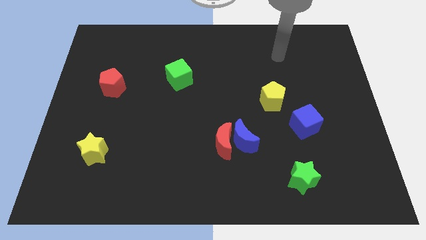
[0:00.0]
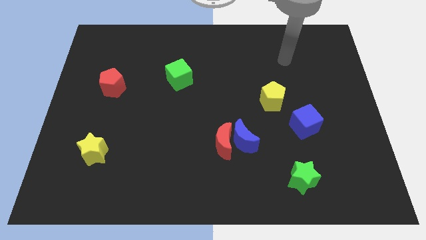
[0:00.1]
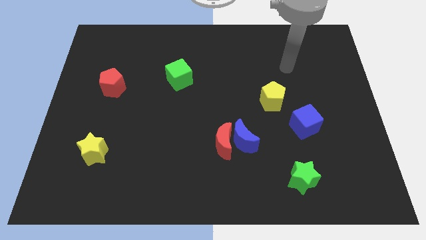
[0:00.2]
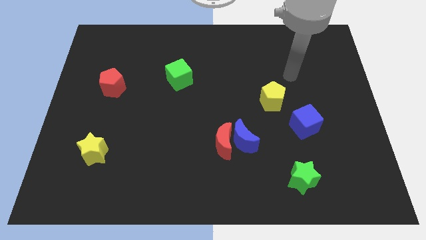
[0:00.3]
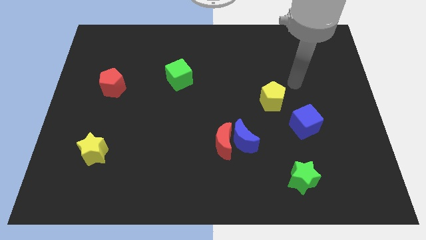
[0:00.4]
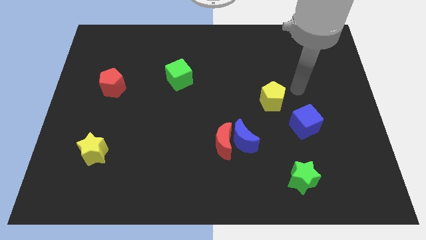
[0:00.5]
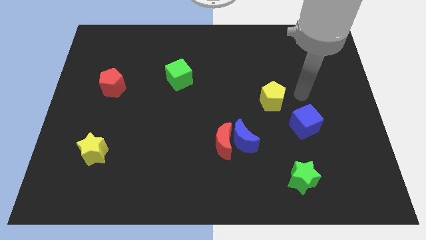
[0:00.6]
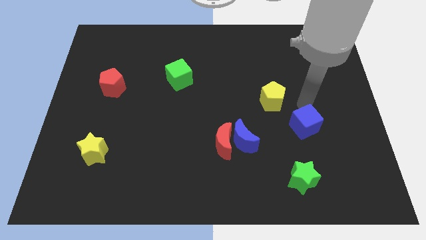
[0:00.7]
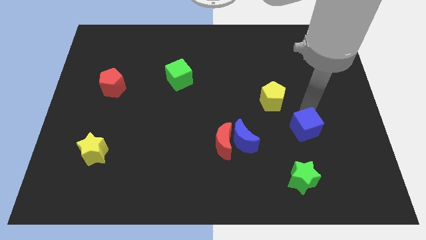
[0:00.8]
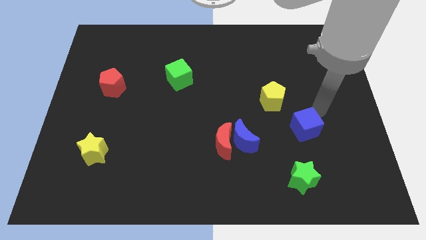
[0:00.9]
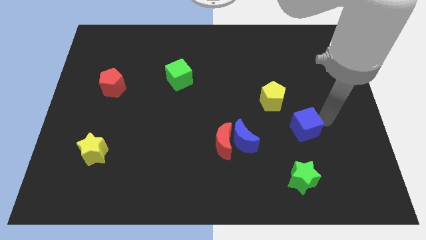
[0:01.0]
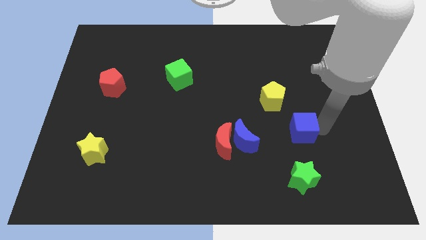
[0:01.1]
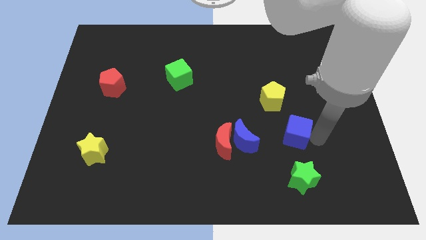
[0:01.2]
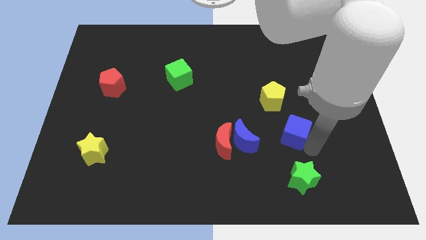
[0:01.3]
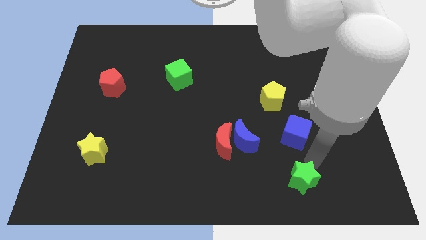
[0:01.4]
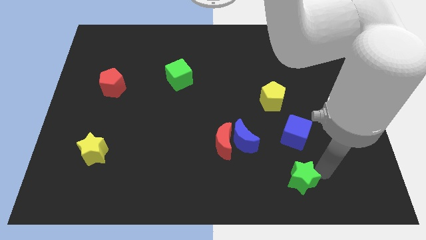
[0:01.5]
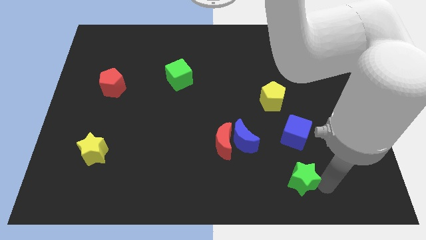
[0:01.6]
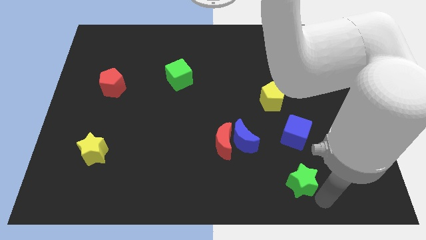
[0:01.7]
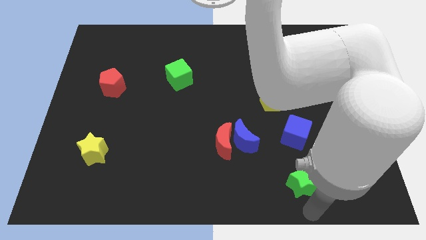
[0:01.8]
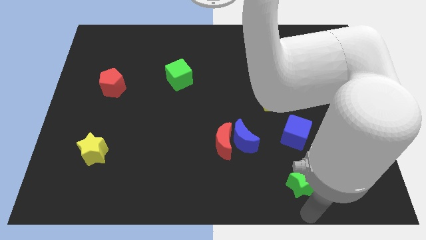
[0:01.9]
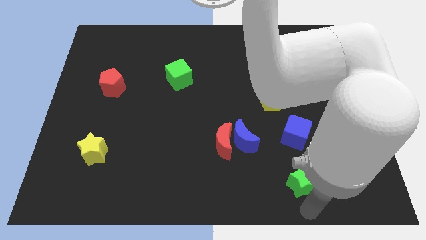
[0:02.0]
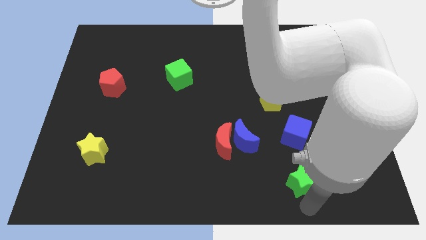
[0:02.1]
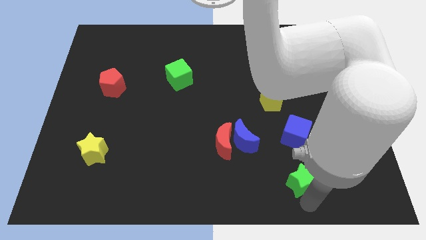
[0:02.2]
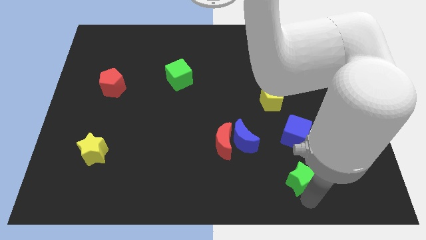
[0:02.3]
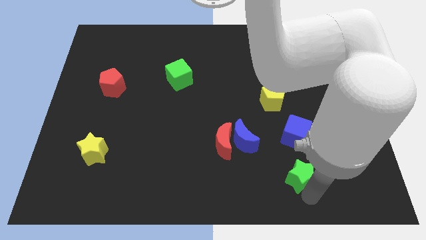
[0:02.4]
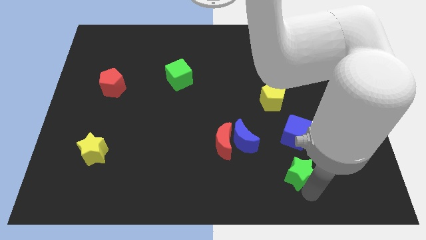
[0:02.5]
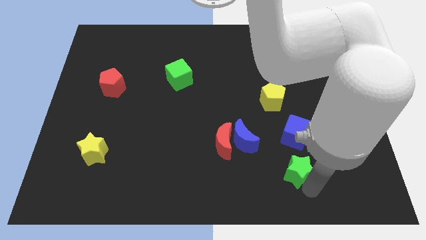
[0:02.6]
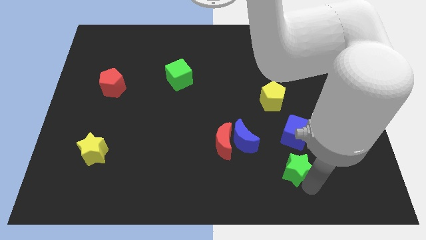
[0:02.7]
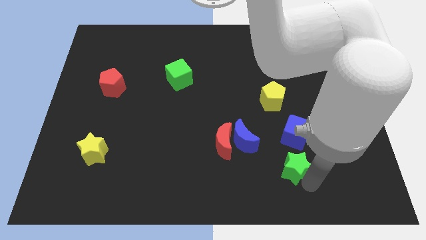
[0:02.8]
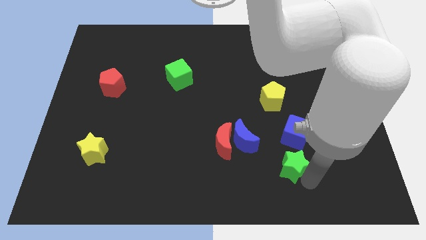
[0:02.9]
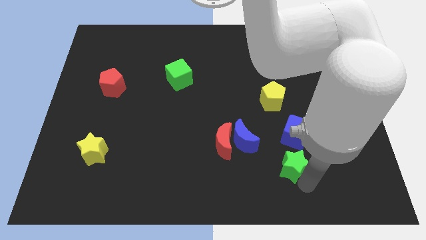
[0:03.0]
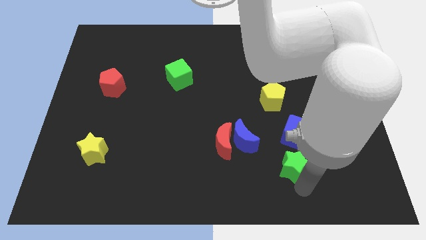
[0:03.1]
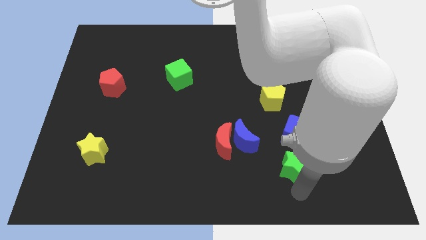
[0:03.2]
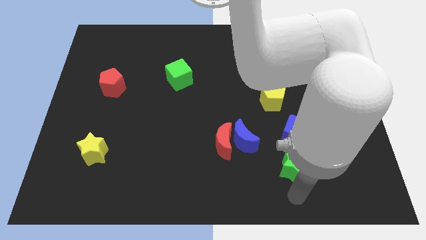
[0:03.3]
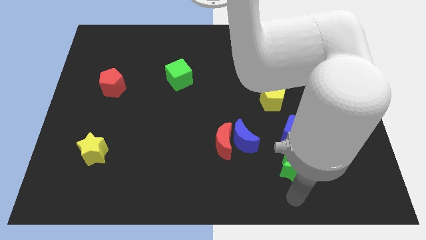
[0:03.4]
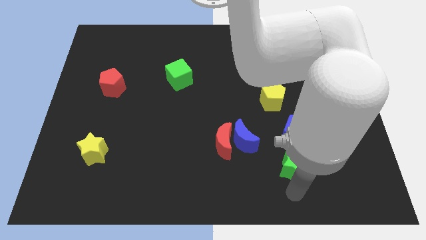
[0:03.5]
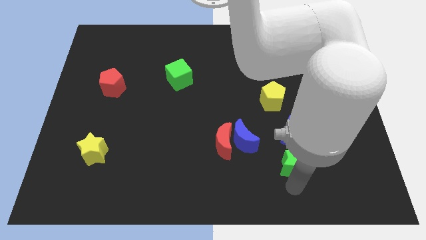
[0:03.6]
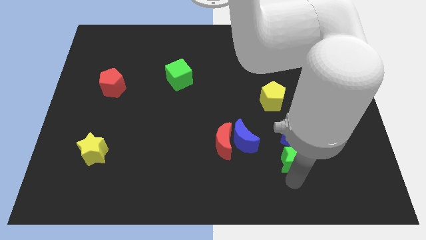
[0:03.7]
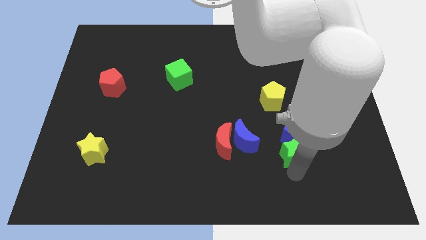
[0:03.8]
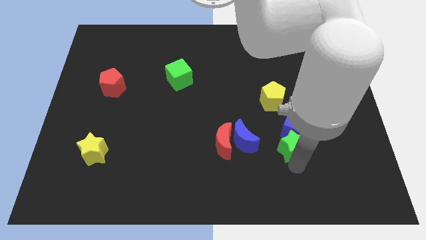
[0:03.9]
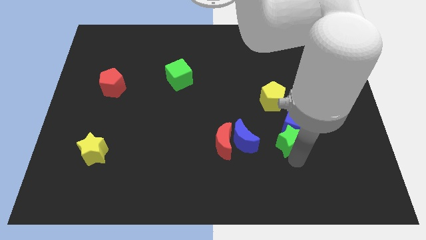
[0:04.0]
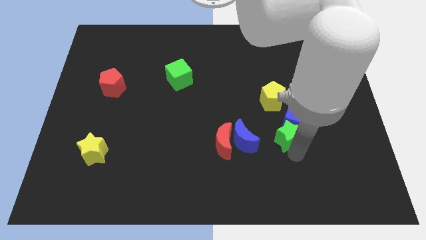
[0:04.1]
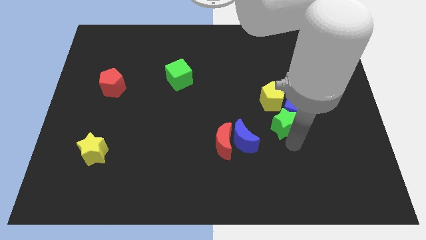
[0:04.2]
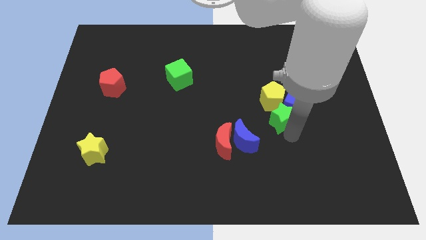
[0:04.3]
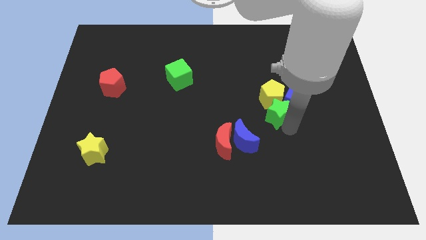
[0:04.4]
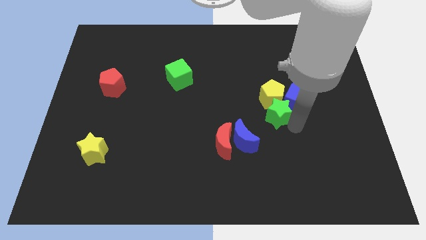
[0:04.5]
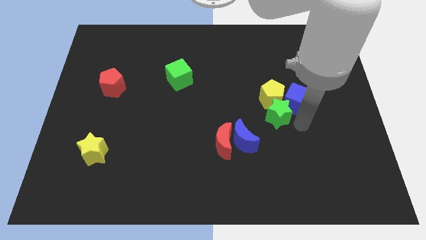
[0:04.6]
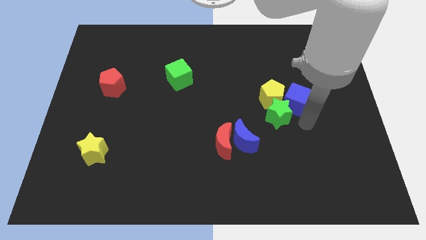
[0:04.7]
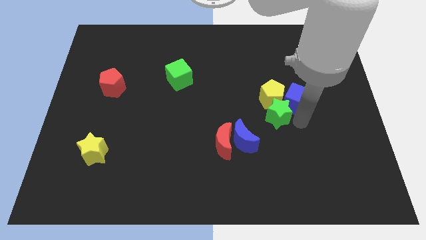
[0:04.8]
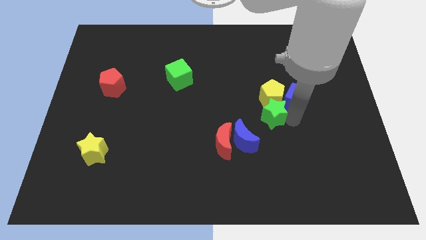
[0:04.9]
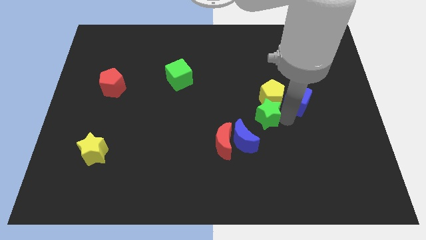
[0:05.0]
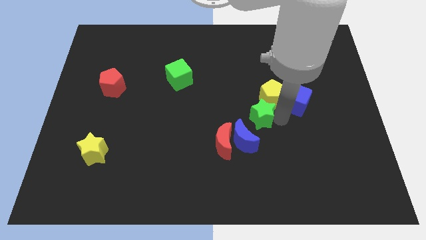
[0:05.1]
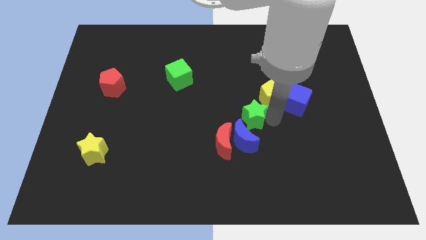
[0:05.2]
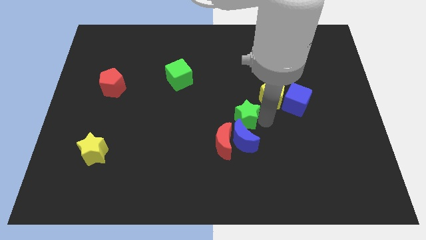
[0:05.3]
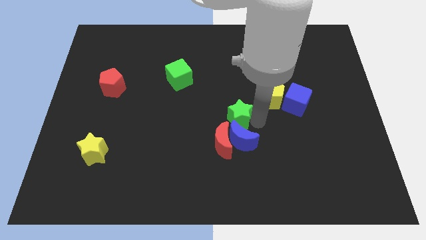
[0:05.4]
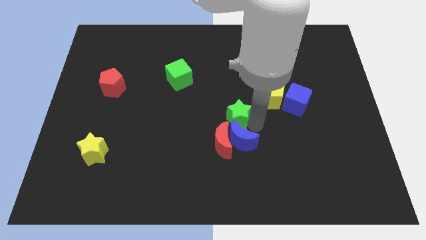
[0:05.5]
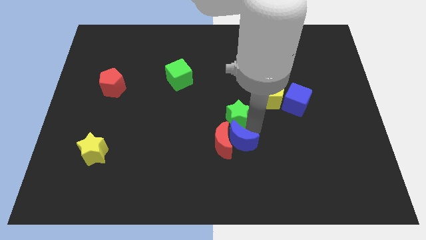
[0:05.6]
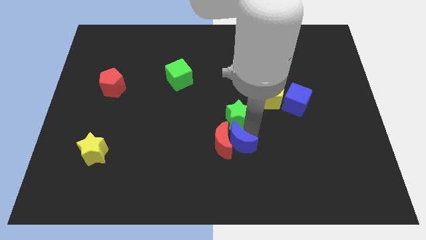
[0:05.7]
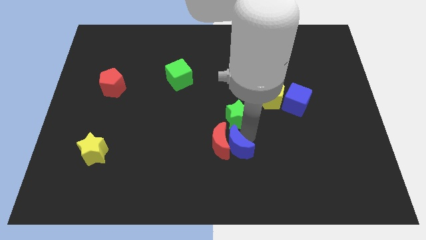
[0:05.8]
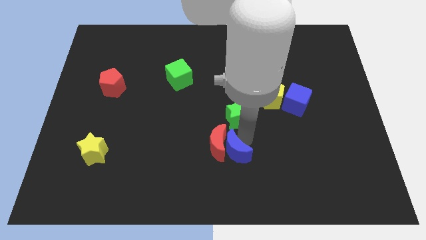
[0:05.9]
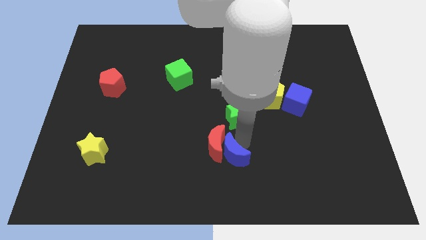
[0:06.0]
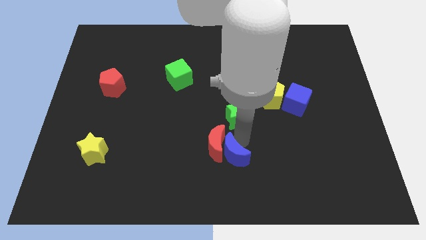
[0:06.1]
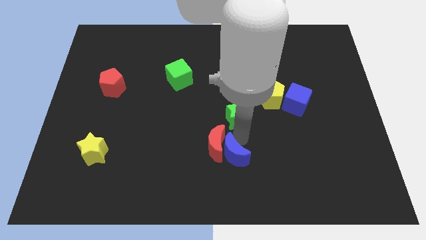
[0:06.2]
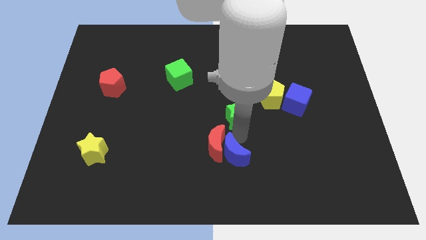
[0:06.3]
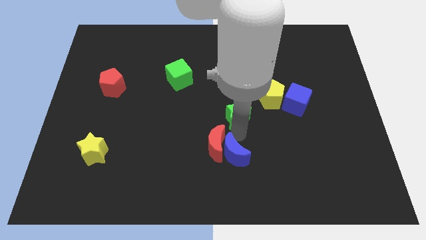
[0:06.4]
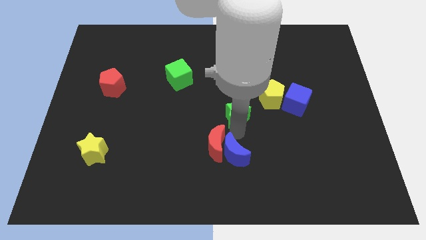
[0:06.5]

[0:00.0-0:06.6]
move the green star up and to the left diagonally

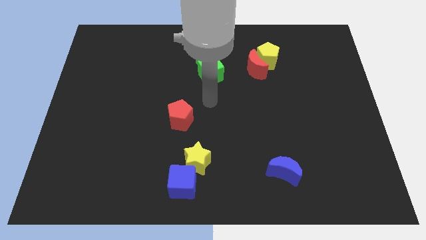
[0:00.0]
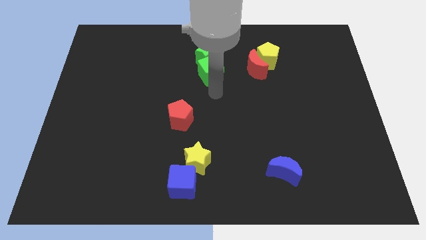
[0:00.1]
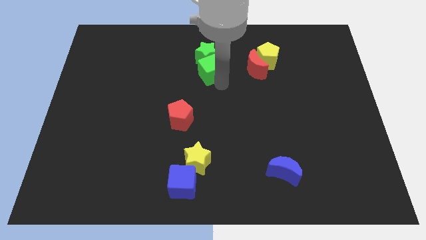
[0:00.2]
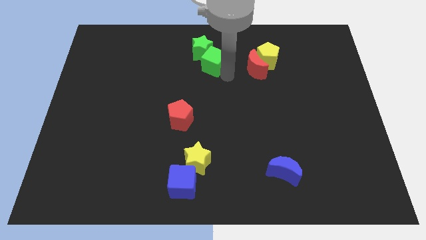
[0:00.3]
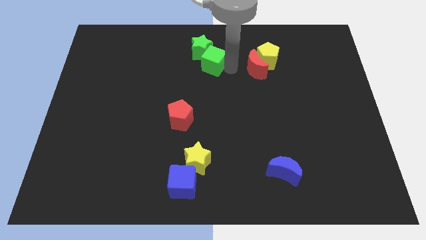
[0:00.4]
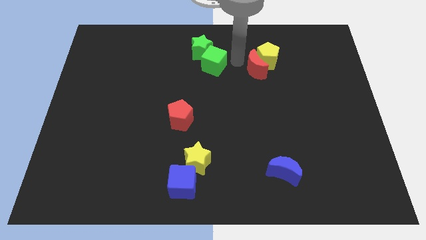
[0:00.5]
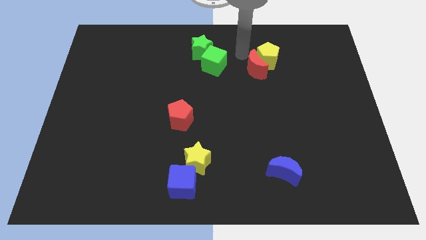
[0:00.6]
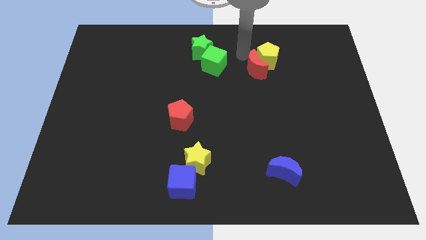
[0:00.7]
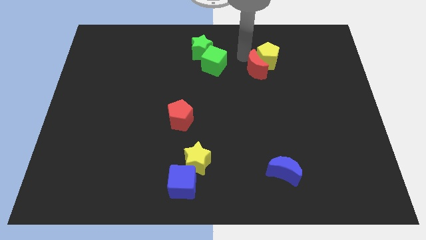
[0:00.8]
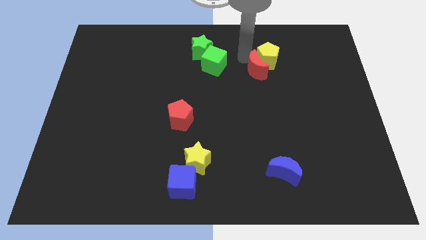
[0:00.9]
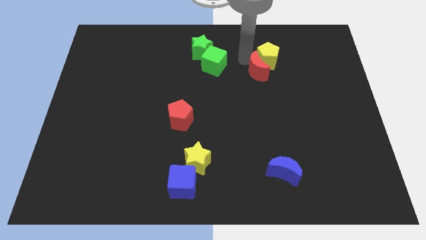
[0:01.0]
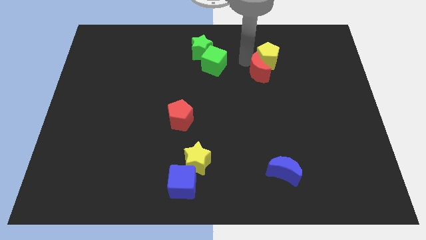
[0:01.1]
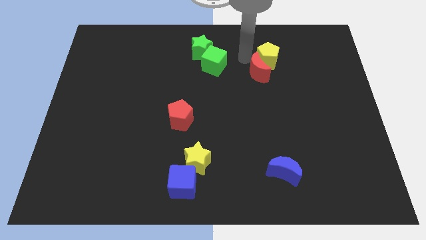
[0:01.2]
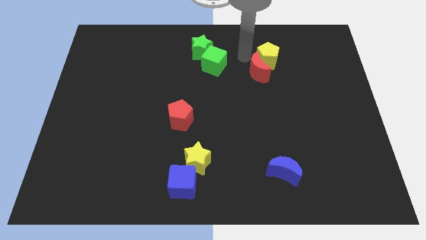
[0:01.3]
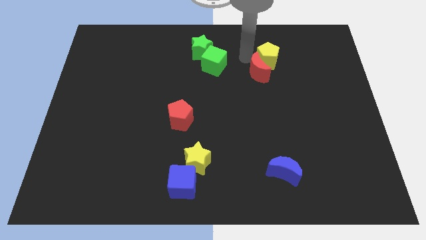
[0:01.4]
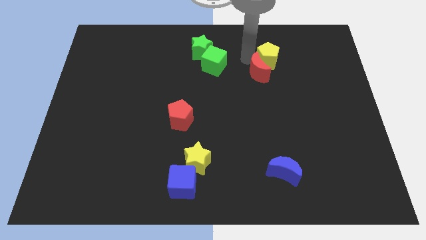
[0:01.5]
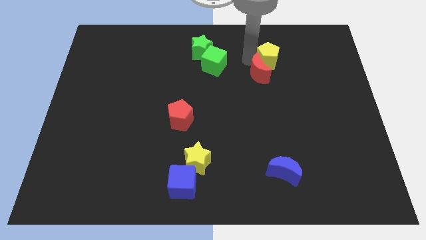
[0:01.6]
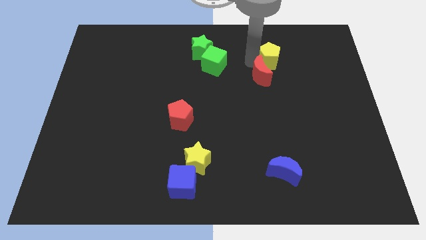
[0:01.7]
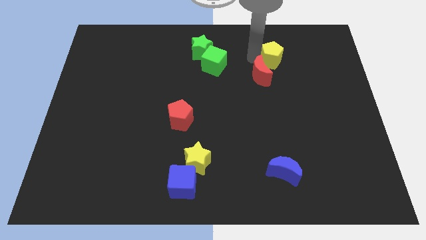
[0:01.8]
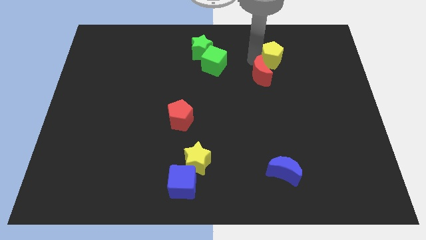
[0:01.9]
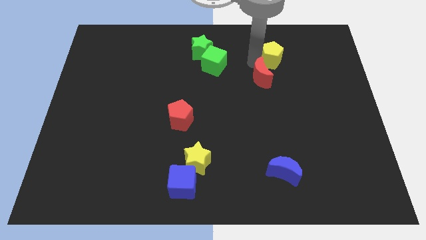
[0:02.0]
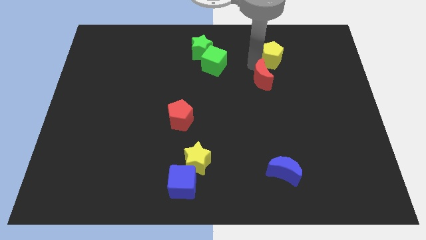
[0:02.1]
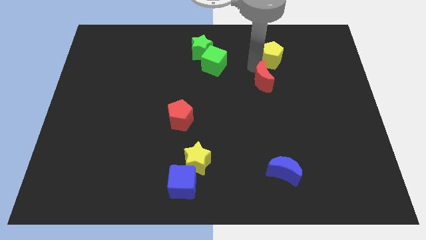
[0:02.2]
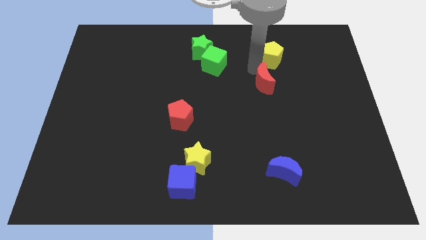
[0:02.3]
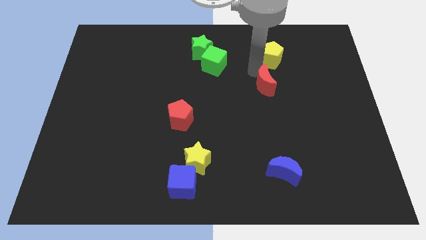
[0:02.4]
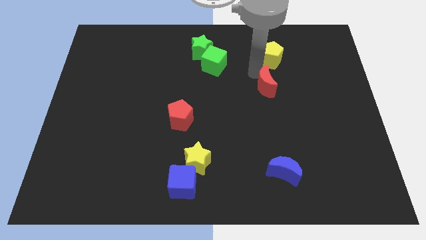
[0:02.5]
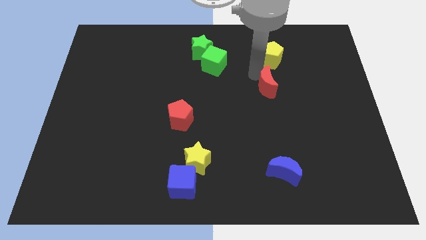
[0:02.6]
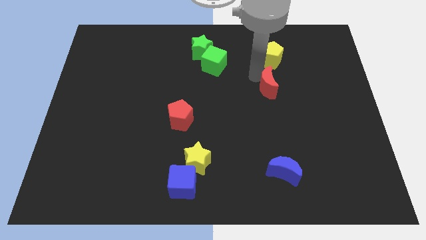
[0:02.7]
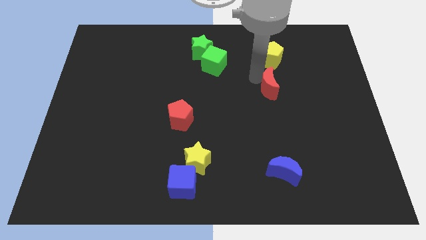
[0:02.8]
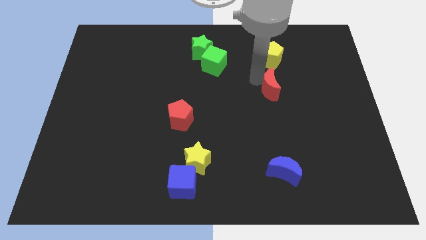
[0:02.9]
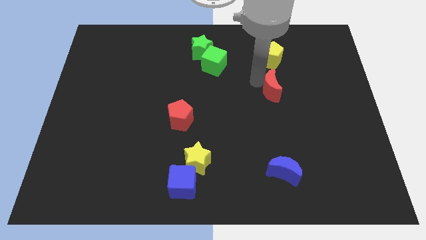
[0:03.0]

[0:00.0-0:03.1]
move the red moon down somewhat
